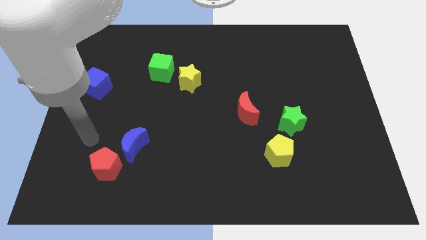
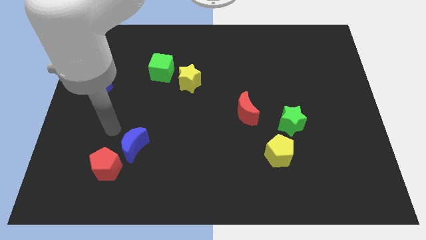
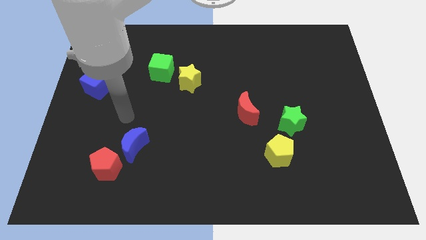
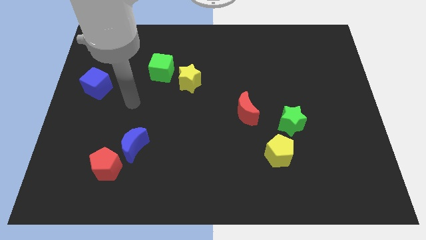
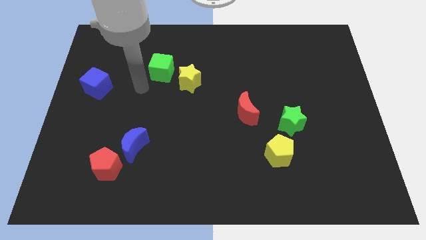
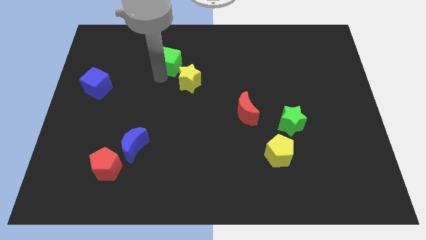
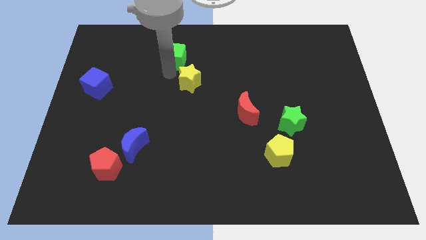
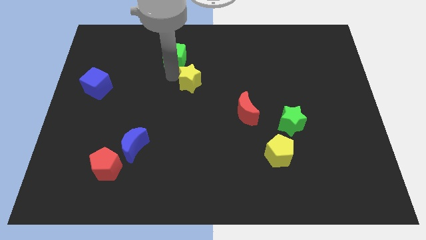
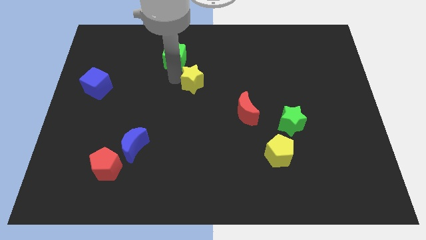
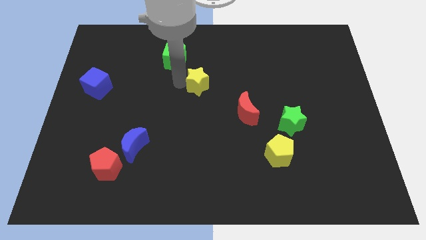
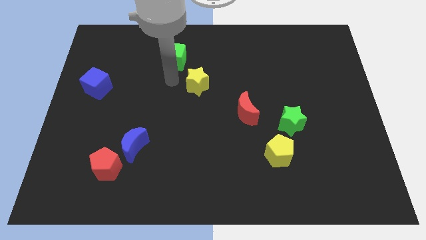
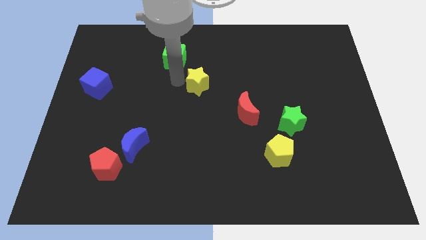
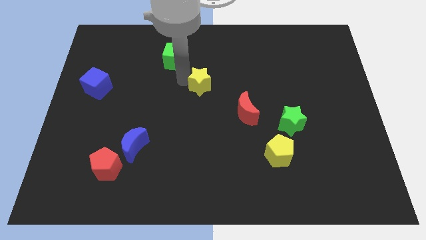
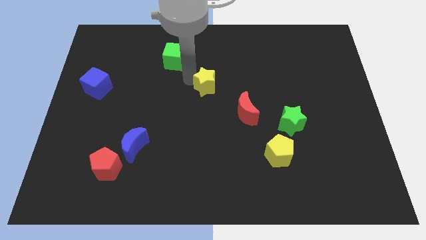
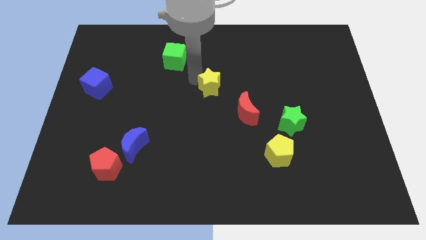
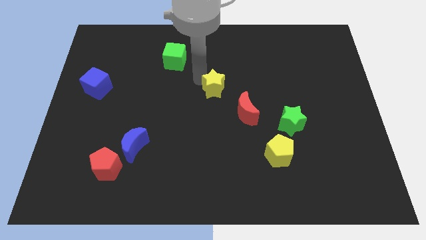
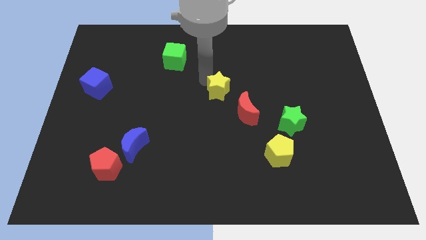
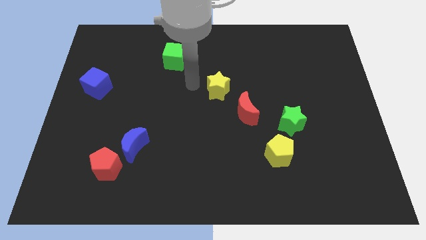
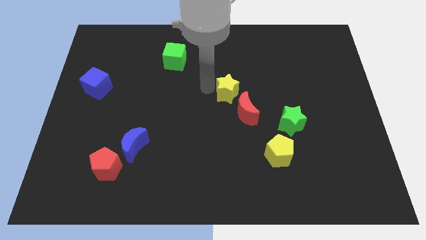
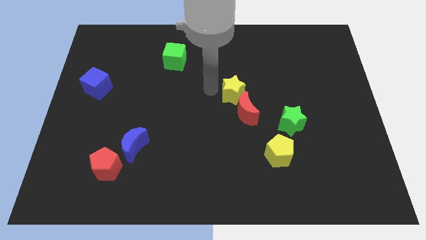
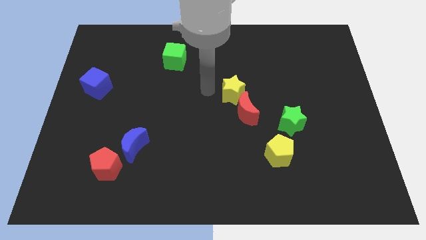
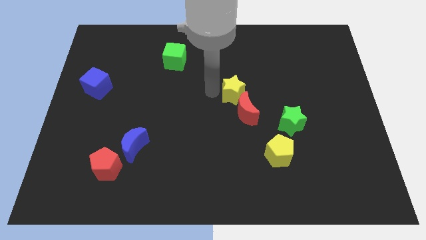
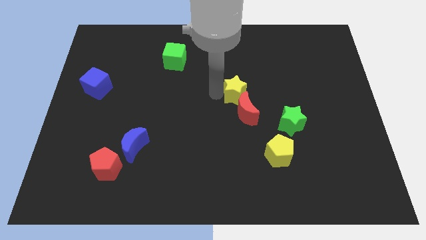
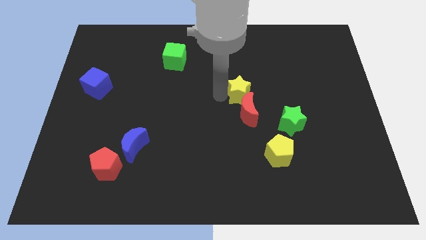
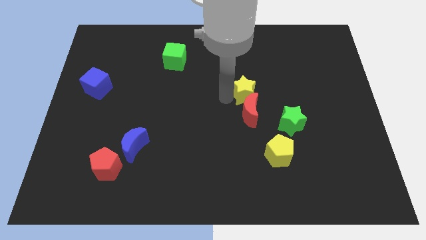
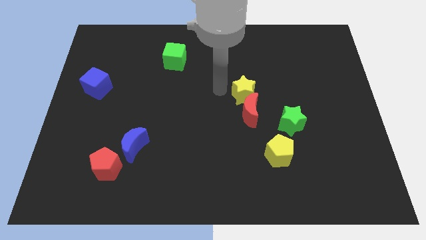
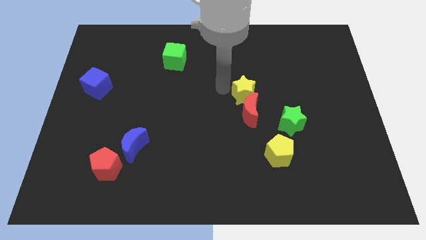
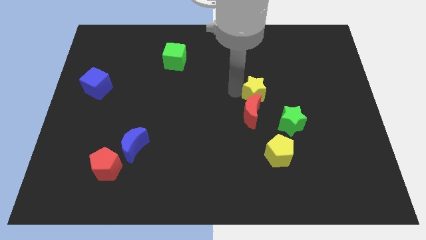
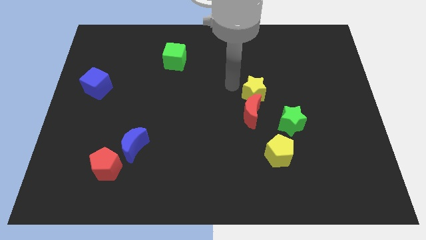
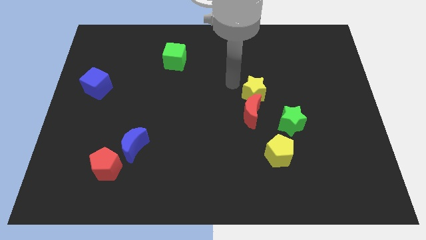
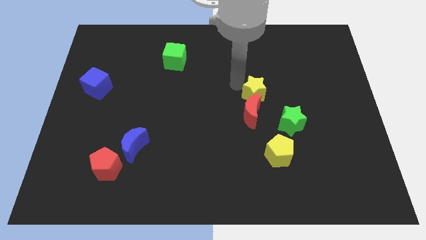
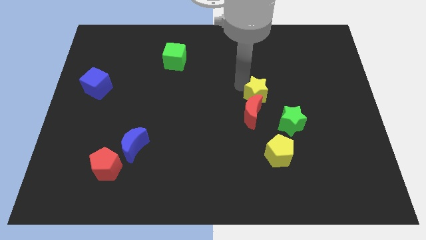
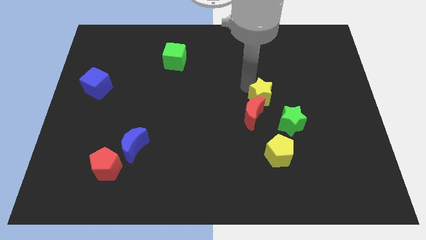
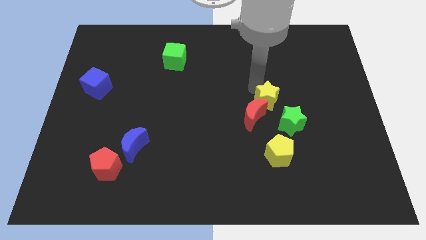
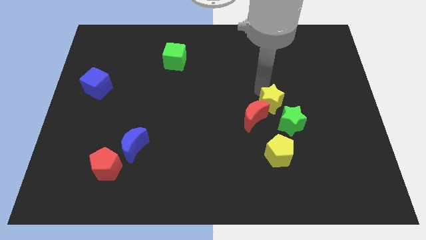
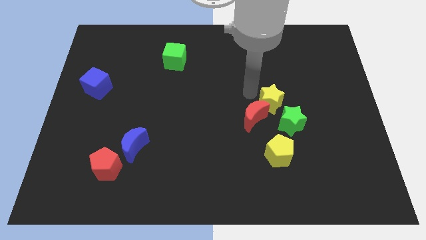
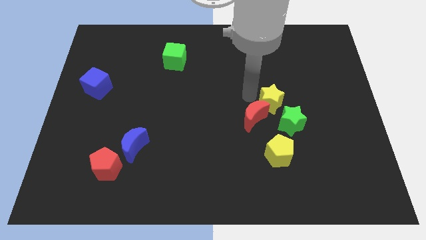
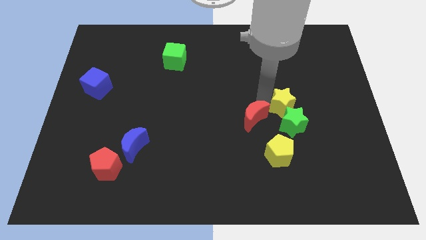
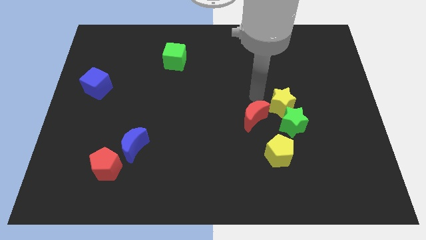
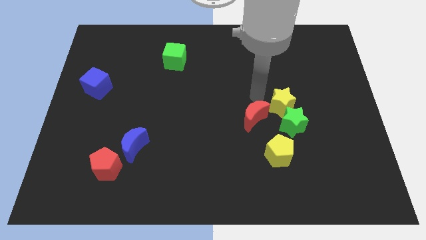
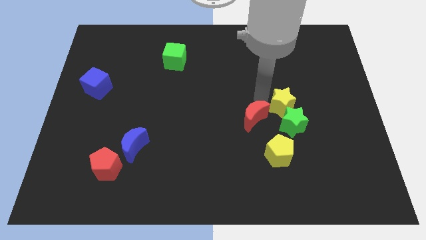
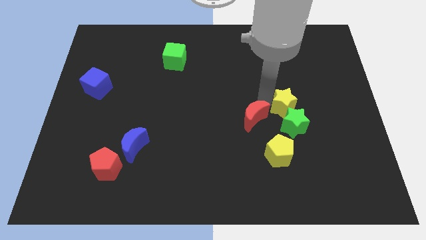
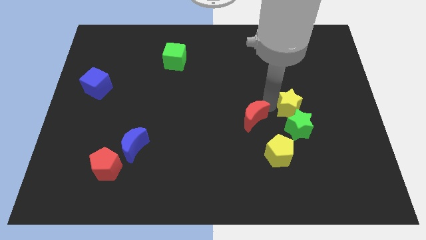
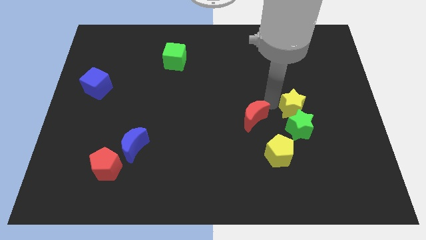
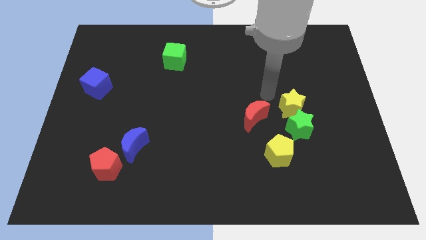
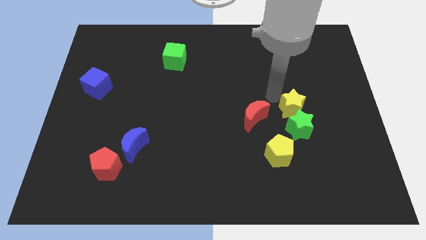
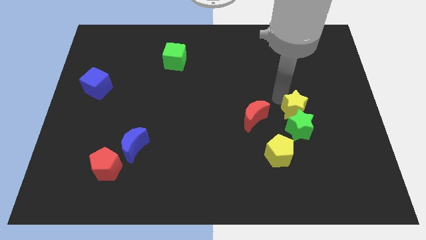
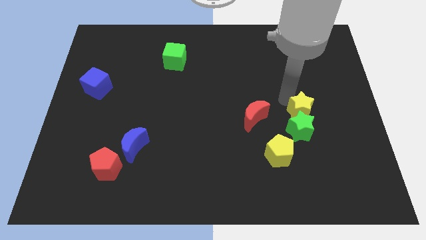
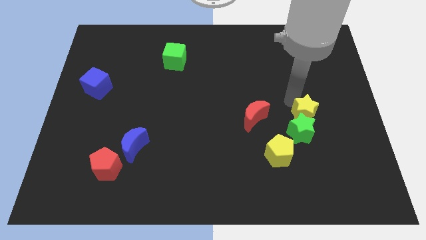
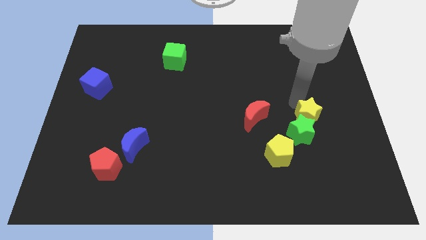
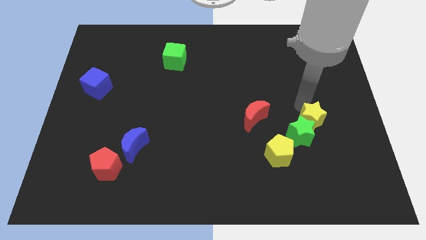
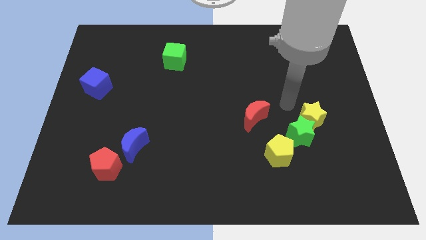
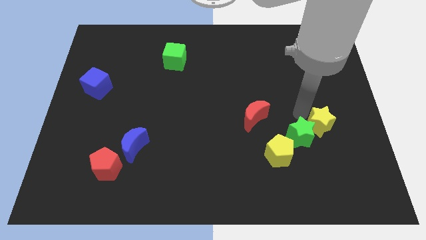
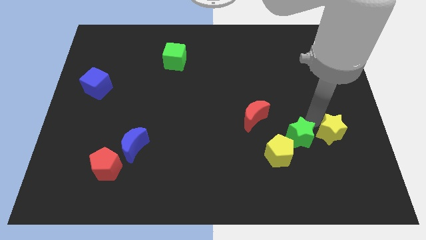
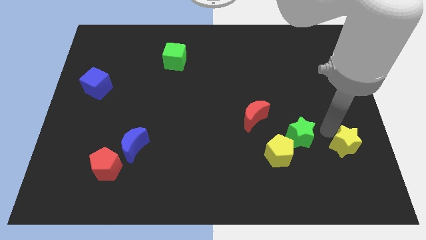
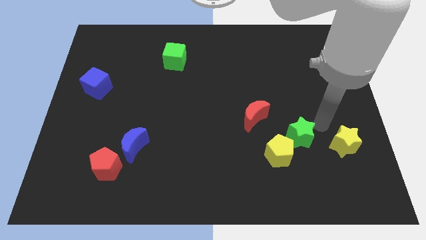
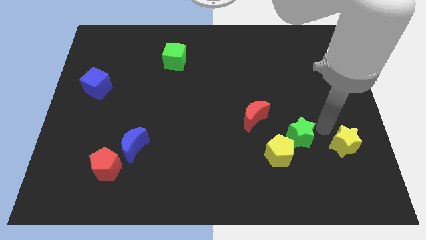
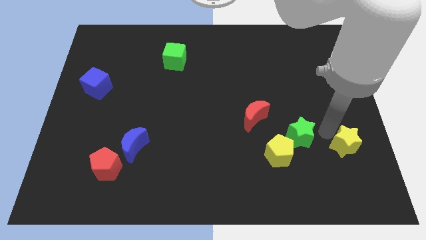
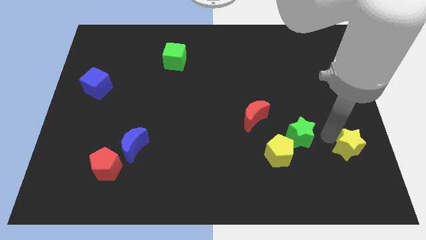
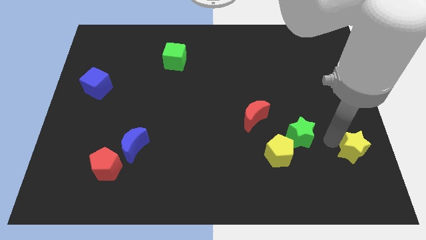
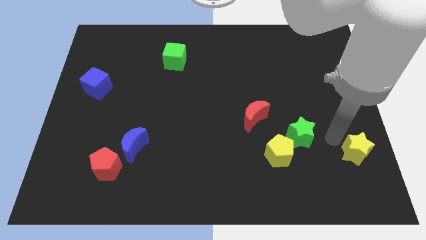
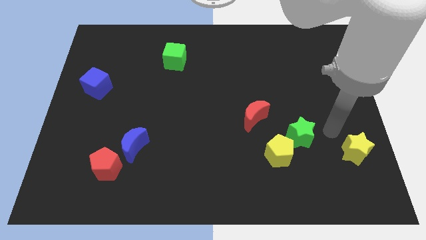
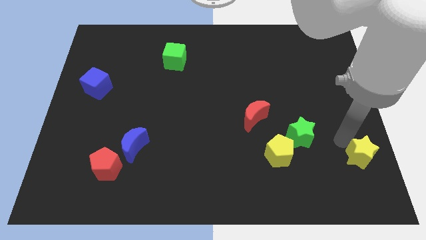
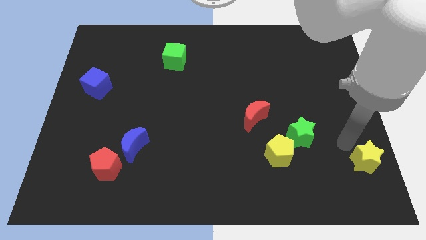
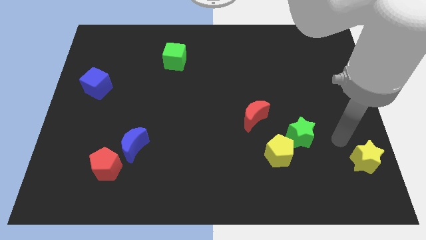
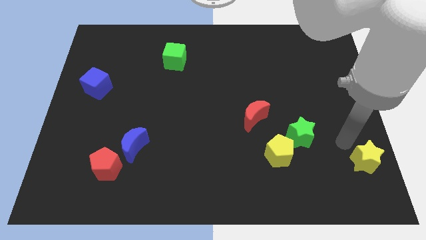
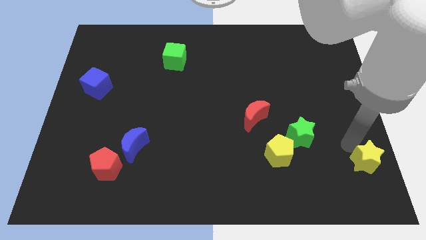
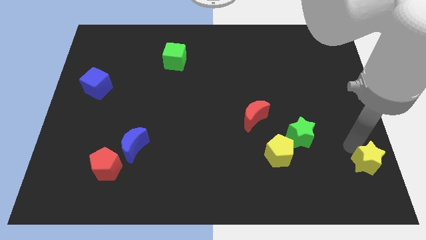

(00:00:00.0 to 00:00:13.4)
push the yellow star to the bottom right of the board

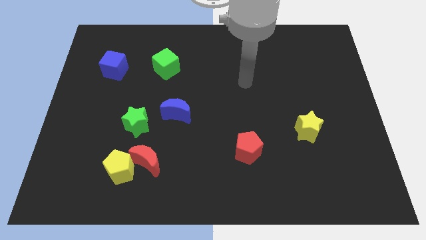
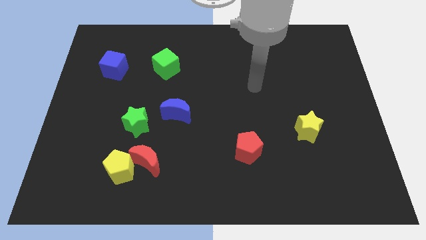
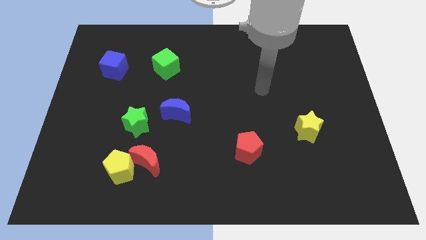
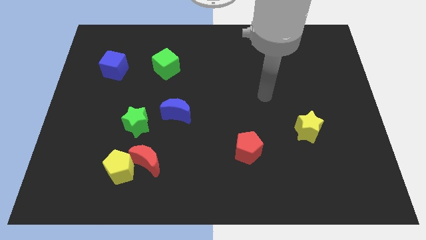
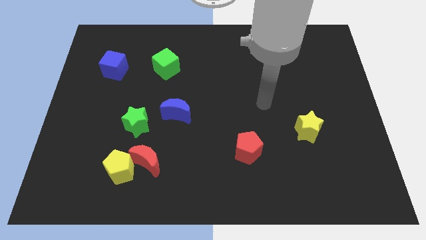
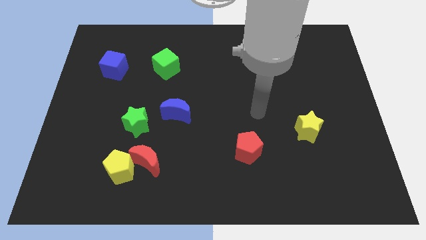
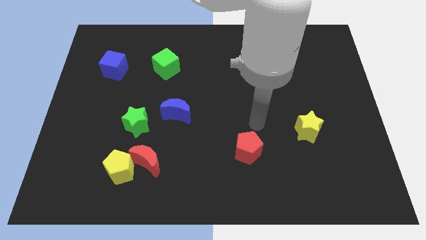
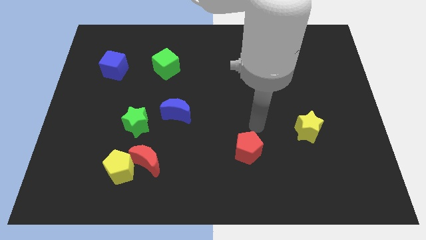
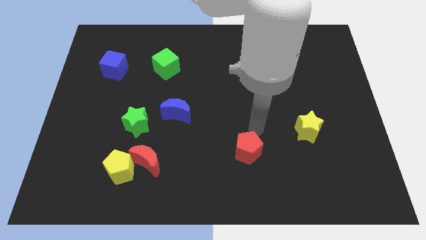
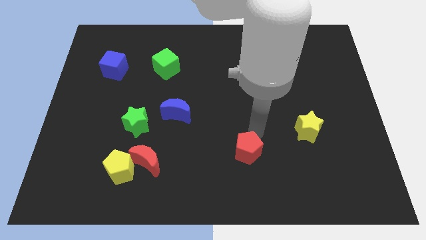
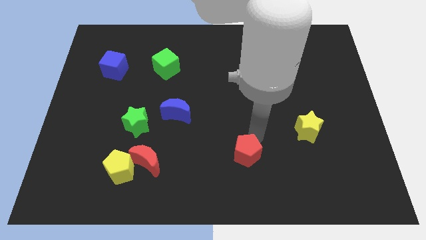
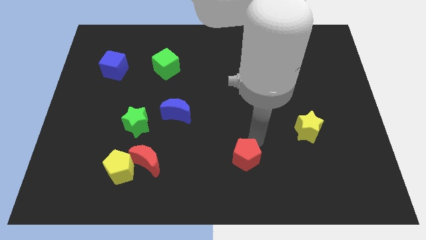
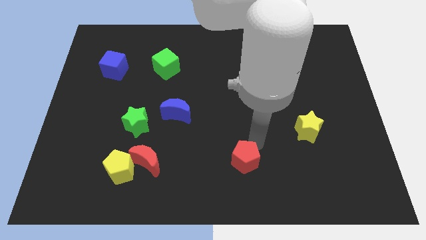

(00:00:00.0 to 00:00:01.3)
move the red pentagon to the bottom
